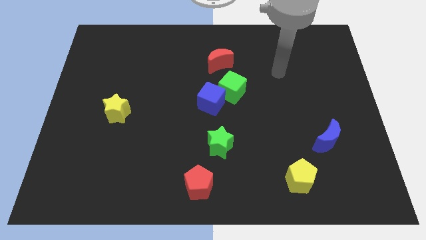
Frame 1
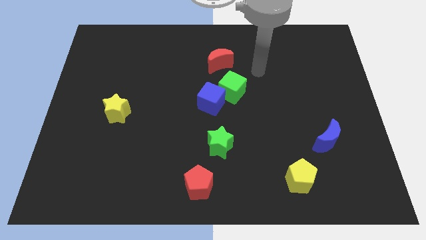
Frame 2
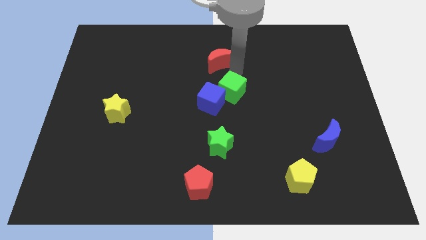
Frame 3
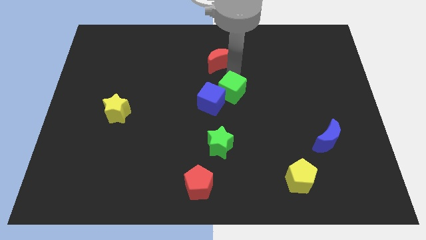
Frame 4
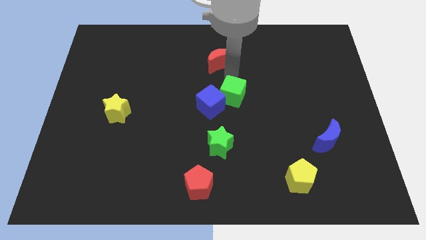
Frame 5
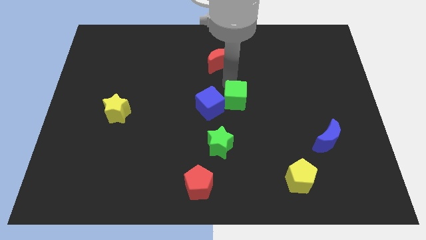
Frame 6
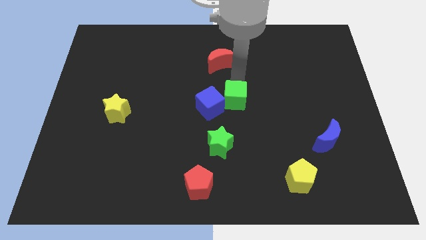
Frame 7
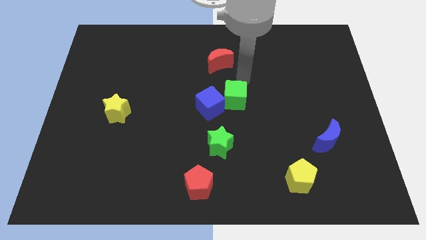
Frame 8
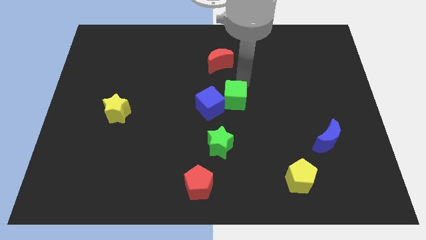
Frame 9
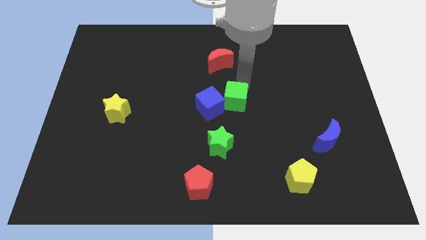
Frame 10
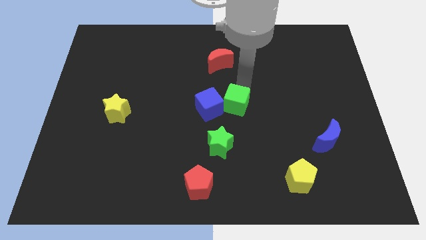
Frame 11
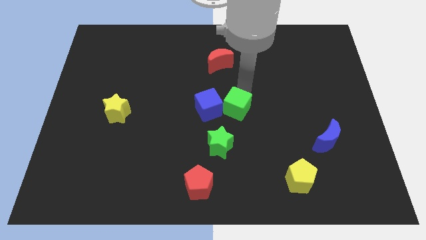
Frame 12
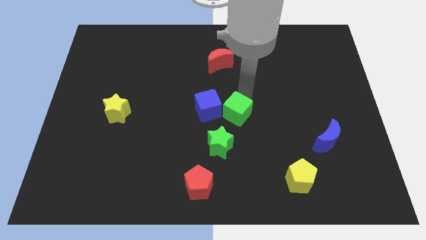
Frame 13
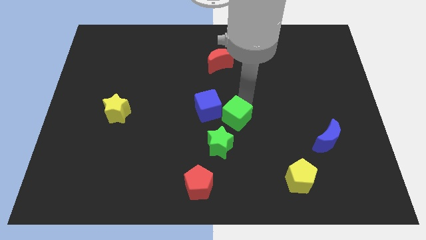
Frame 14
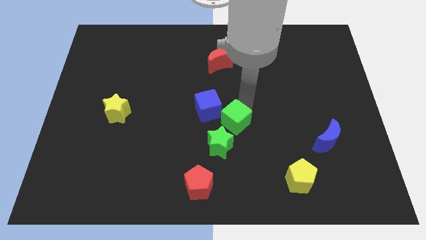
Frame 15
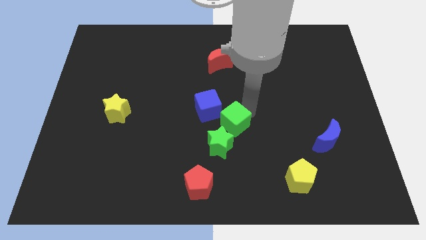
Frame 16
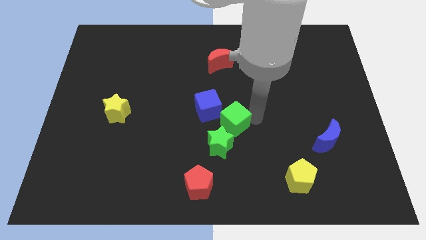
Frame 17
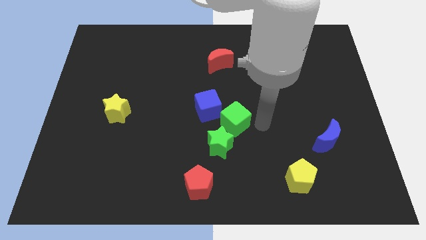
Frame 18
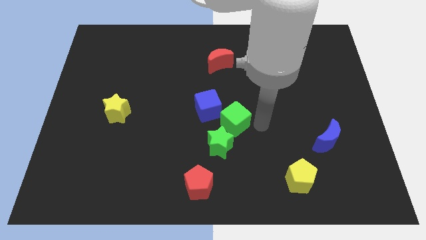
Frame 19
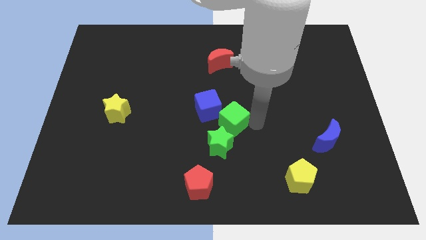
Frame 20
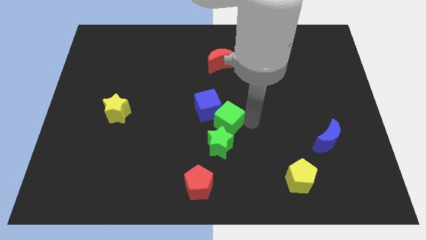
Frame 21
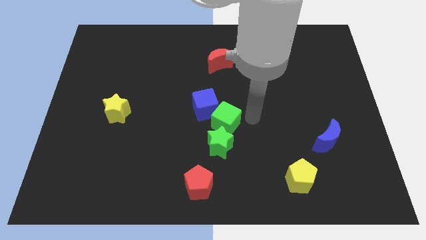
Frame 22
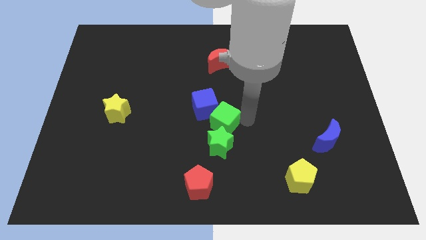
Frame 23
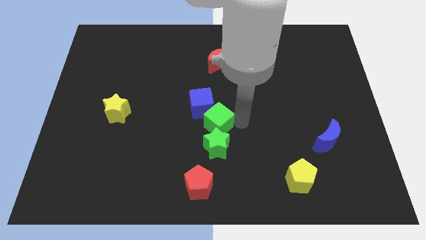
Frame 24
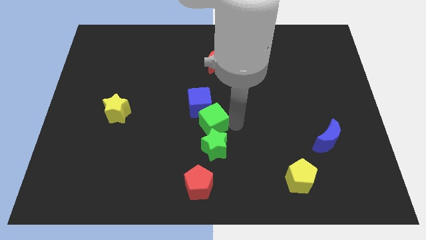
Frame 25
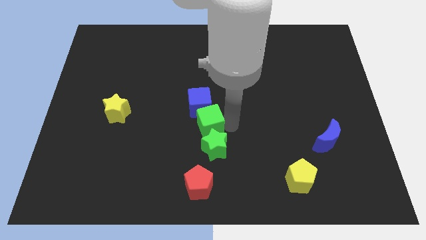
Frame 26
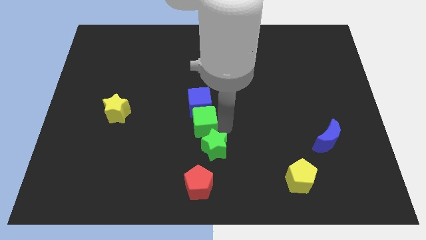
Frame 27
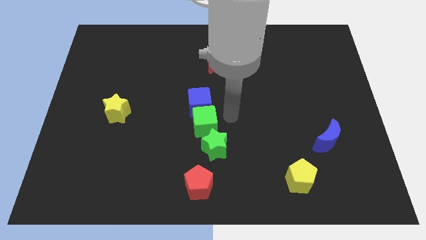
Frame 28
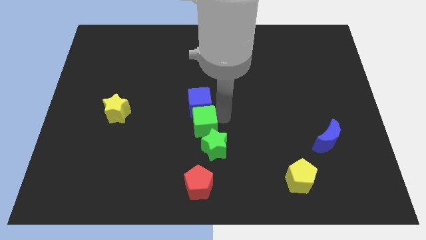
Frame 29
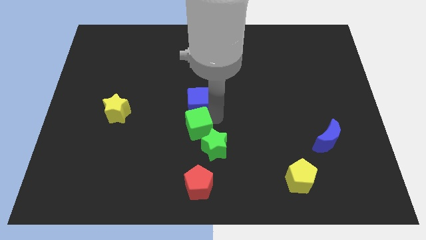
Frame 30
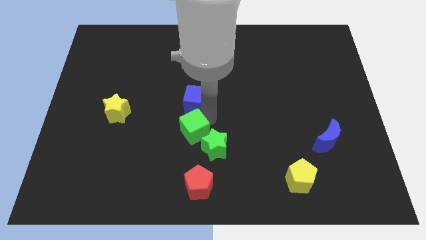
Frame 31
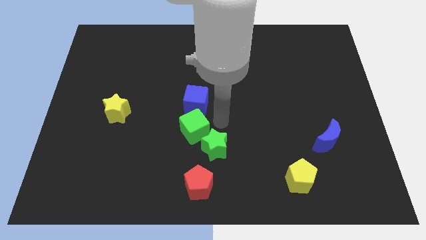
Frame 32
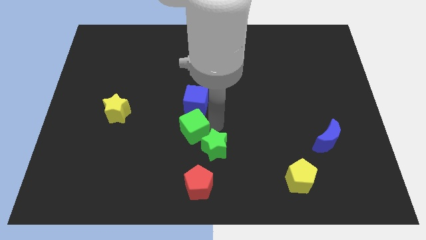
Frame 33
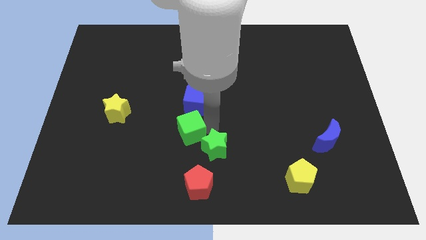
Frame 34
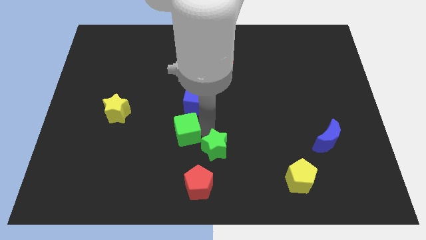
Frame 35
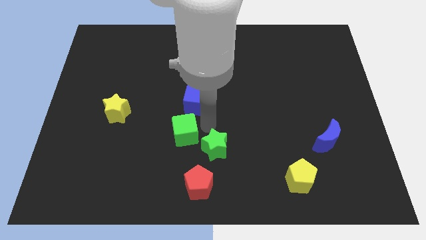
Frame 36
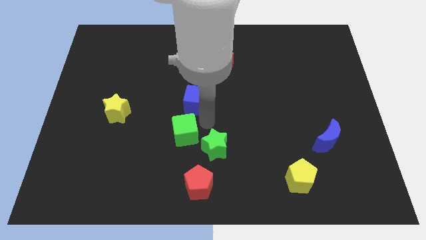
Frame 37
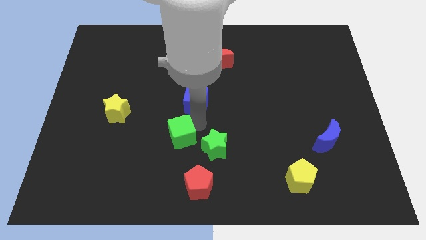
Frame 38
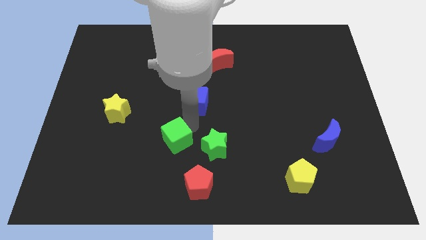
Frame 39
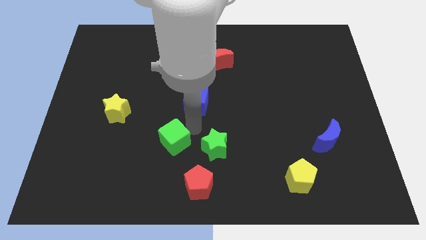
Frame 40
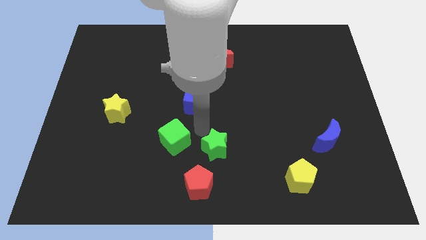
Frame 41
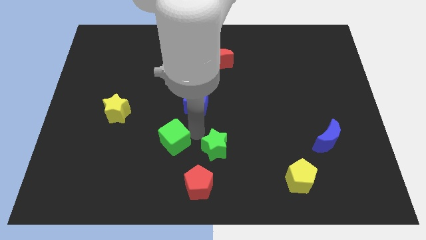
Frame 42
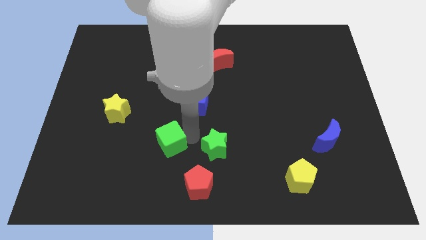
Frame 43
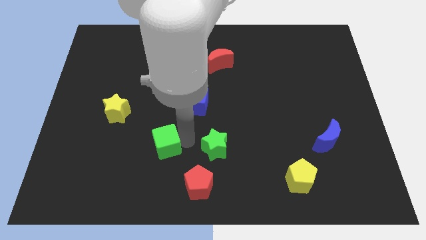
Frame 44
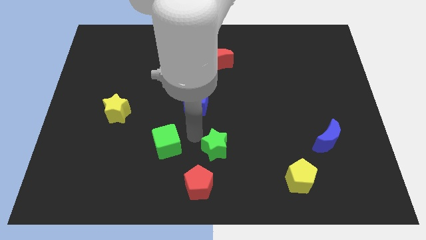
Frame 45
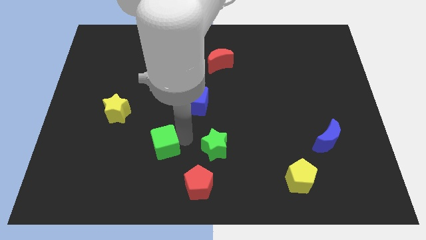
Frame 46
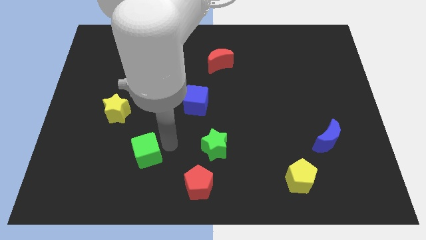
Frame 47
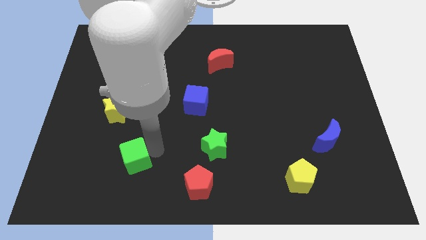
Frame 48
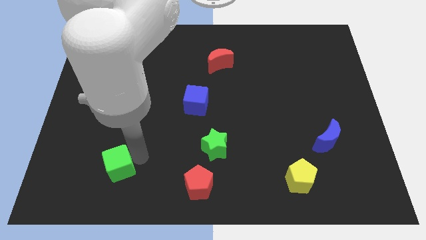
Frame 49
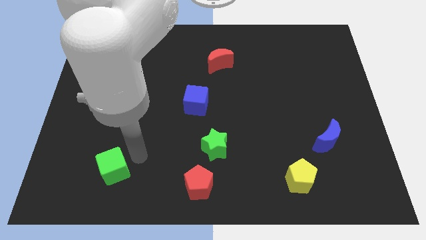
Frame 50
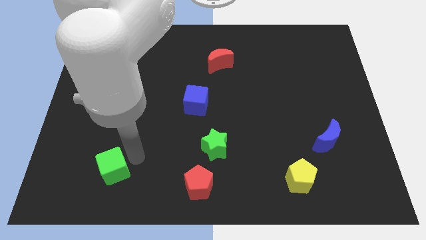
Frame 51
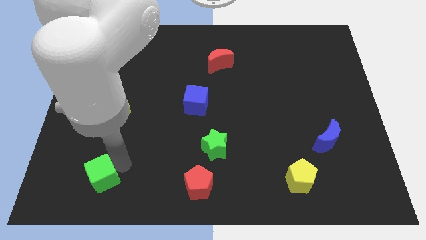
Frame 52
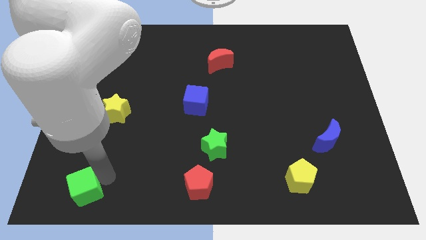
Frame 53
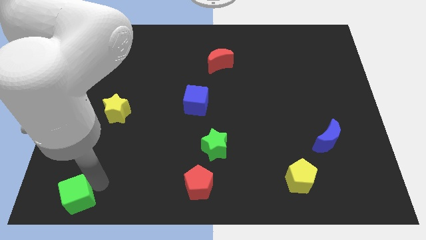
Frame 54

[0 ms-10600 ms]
put the green cube to the lower left corner
